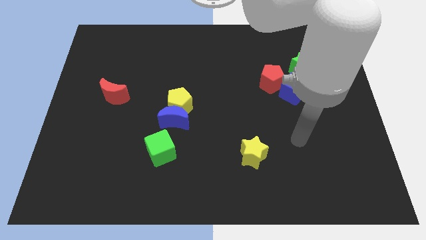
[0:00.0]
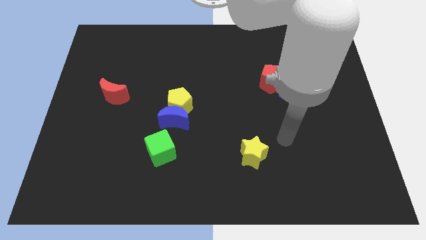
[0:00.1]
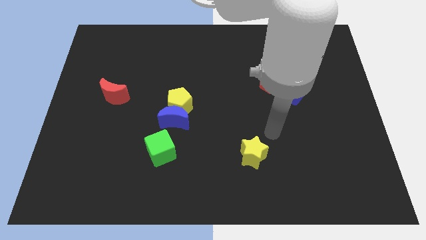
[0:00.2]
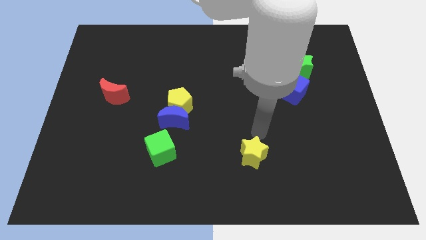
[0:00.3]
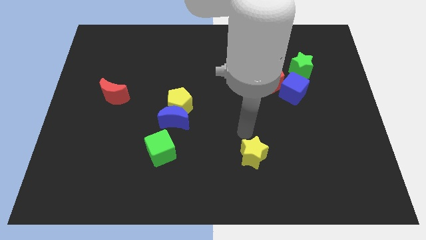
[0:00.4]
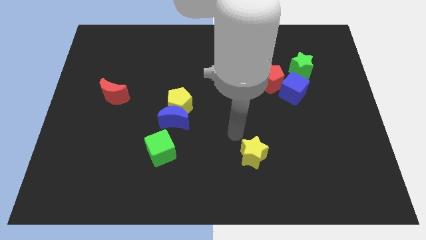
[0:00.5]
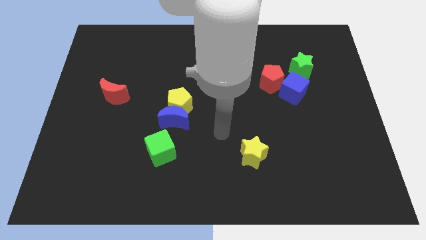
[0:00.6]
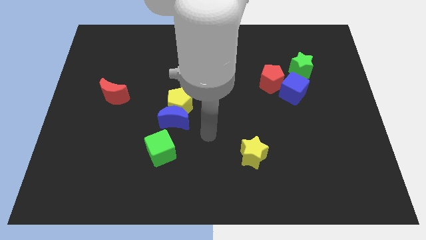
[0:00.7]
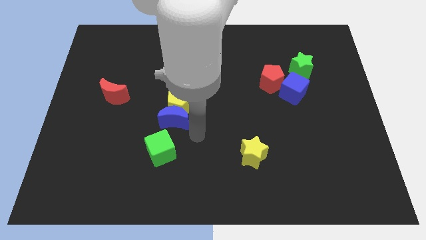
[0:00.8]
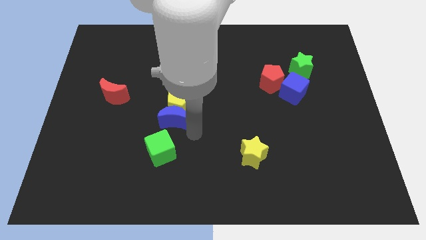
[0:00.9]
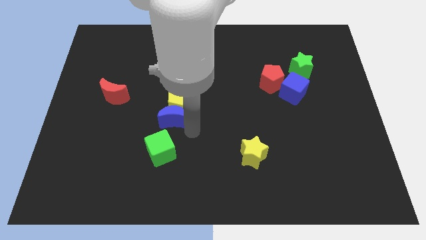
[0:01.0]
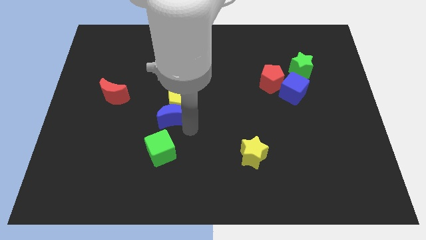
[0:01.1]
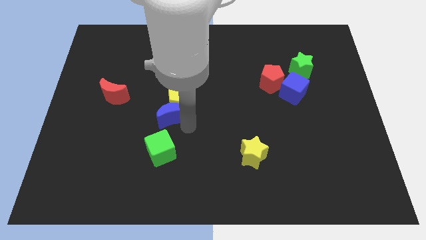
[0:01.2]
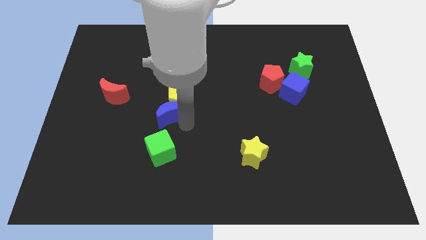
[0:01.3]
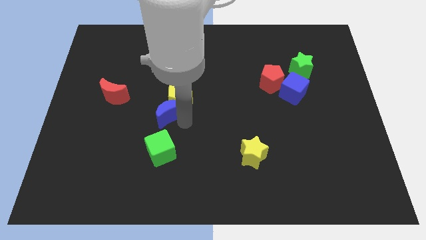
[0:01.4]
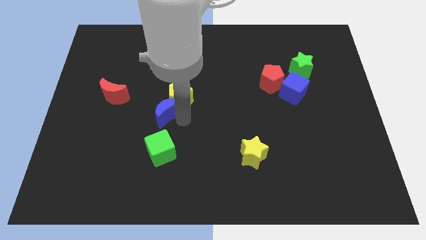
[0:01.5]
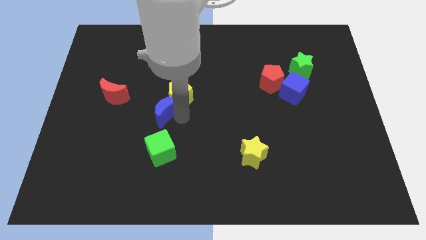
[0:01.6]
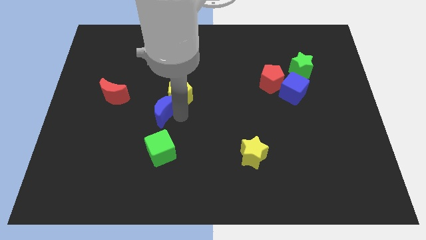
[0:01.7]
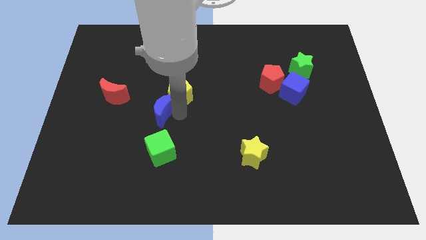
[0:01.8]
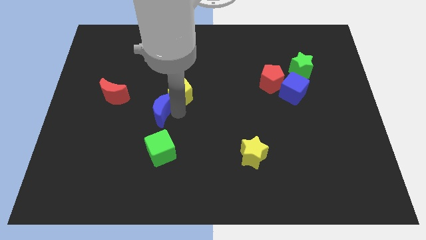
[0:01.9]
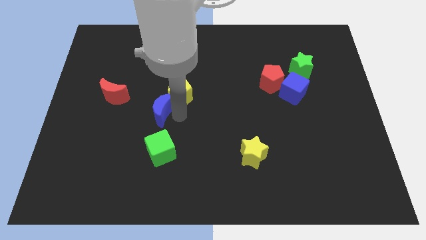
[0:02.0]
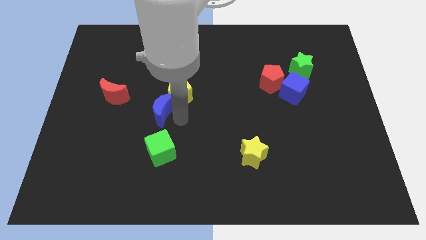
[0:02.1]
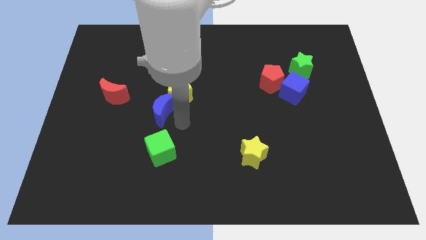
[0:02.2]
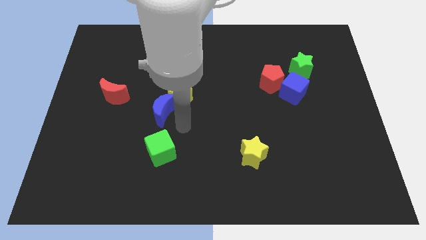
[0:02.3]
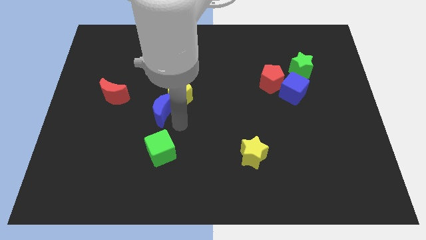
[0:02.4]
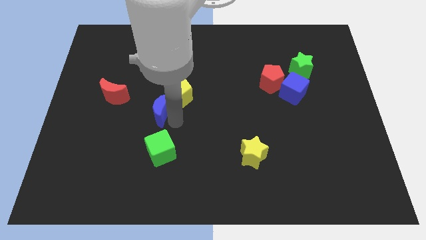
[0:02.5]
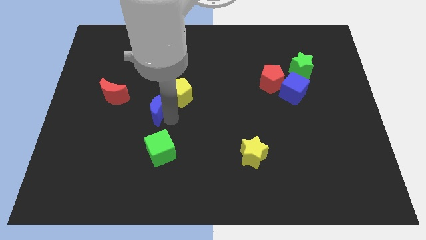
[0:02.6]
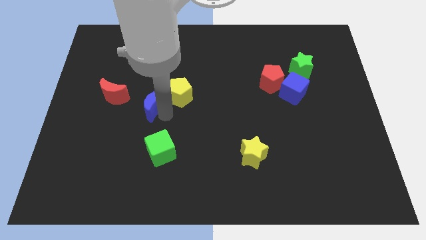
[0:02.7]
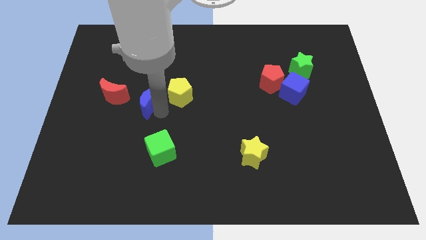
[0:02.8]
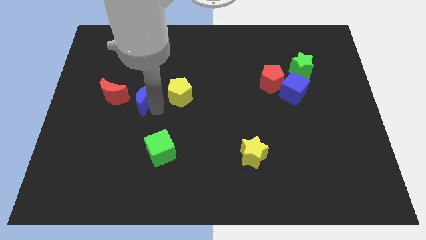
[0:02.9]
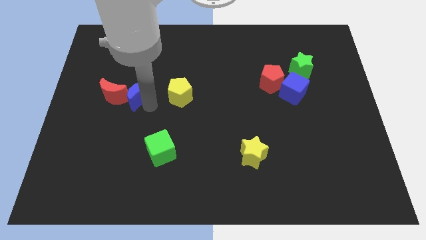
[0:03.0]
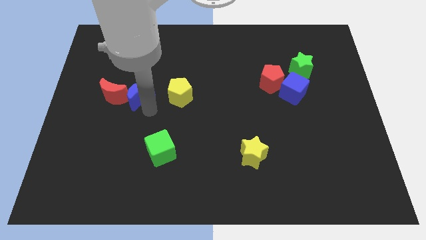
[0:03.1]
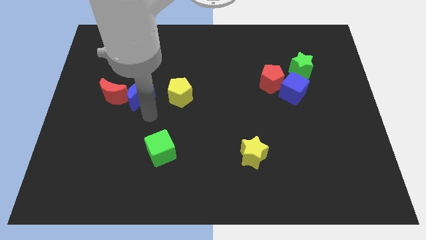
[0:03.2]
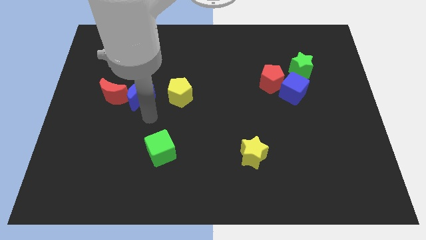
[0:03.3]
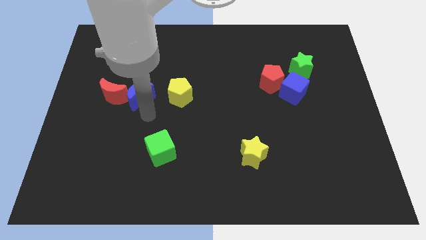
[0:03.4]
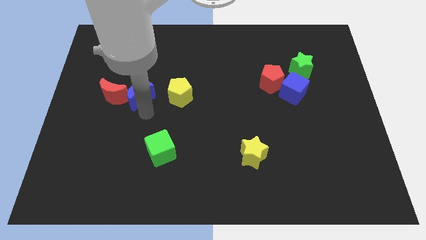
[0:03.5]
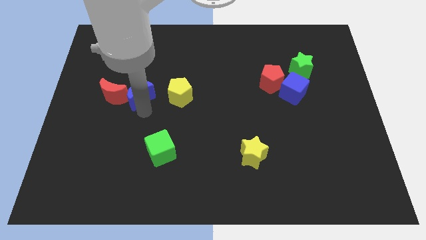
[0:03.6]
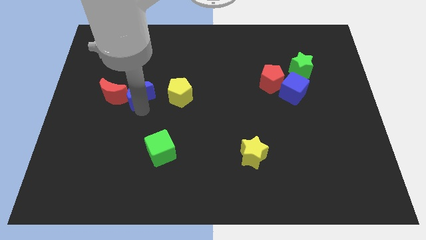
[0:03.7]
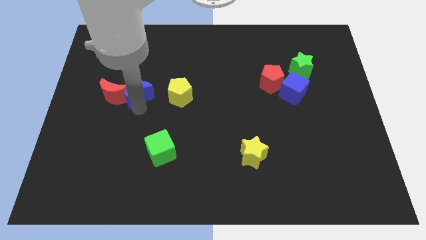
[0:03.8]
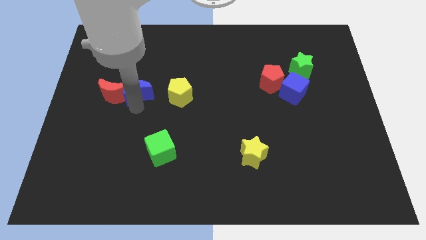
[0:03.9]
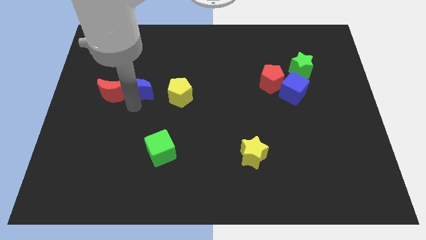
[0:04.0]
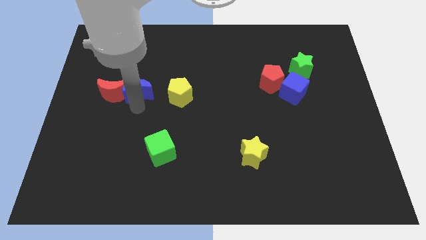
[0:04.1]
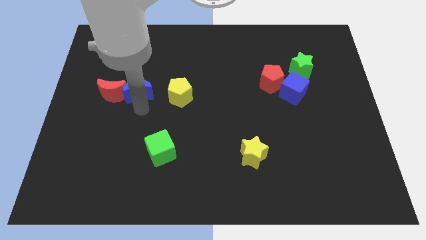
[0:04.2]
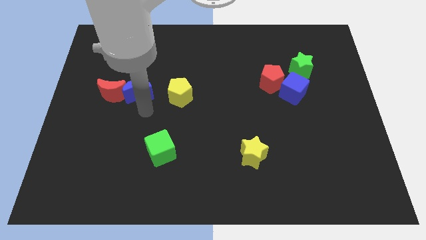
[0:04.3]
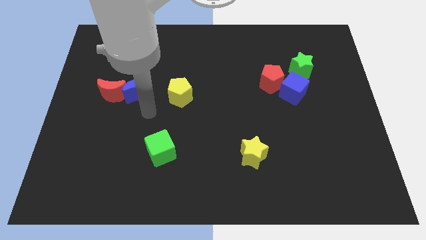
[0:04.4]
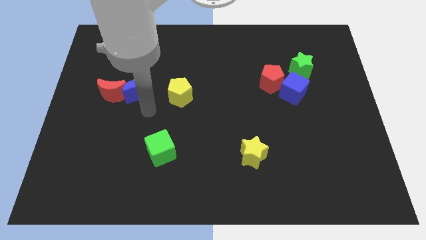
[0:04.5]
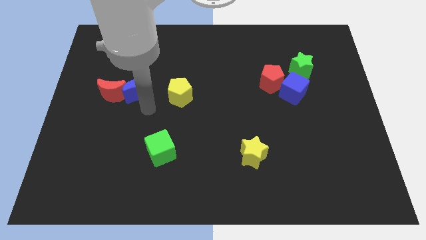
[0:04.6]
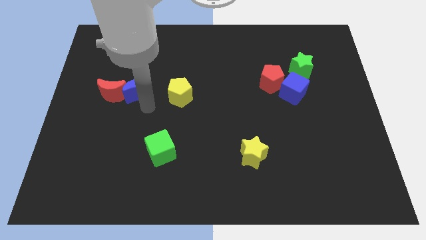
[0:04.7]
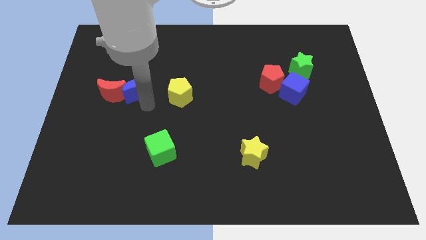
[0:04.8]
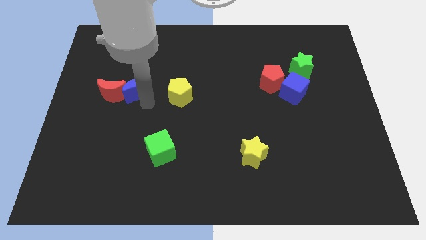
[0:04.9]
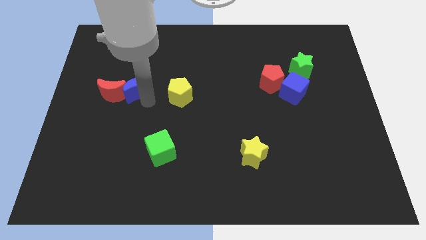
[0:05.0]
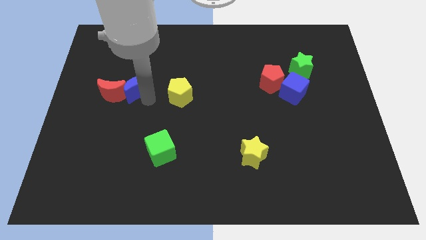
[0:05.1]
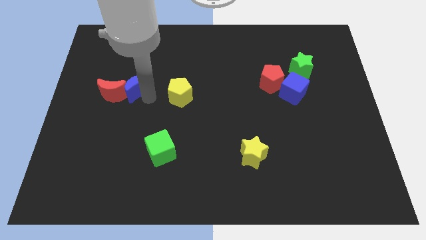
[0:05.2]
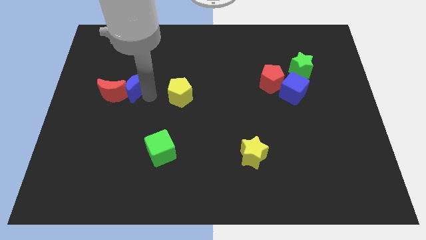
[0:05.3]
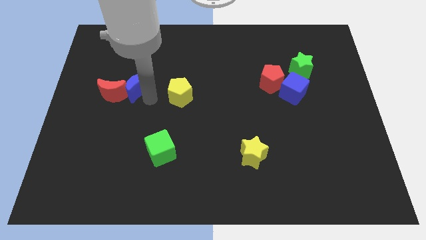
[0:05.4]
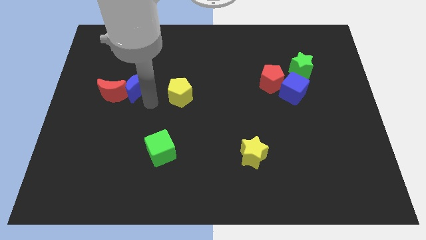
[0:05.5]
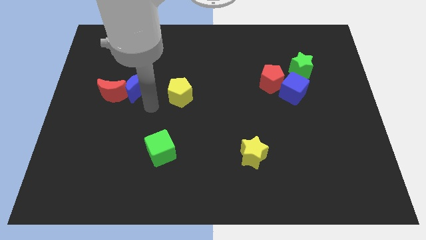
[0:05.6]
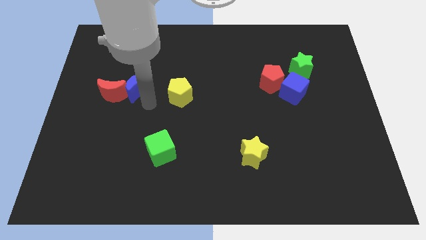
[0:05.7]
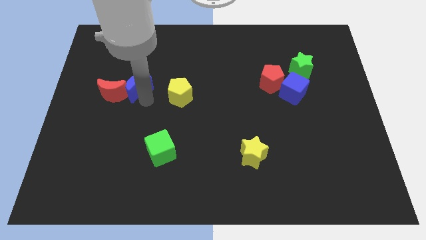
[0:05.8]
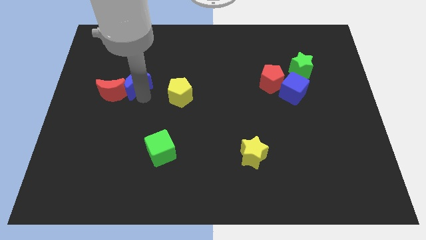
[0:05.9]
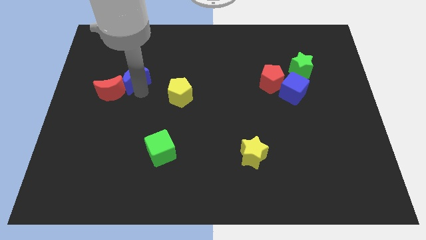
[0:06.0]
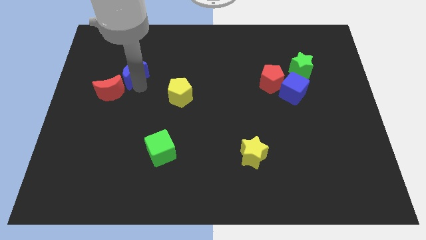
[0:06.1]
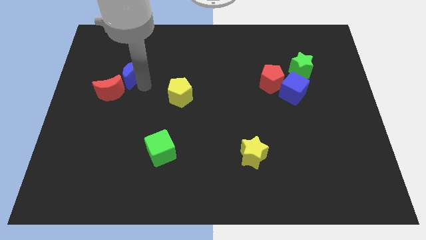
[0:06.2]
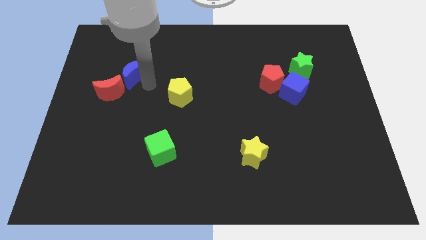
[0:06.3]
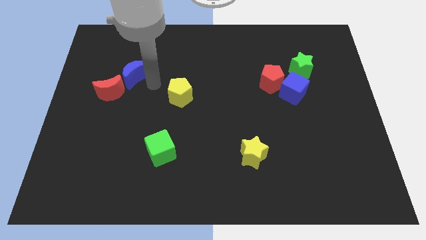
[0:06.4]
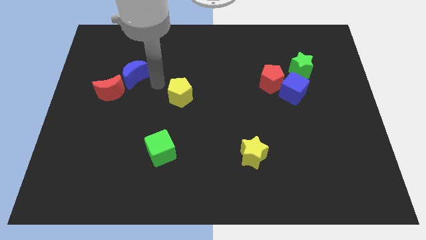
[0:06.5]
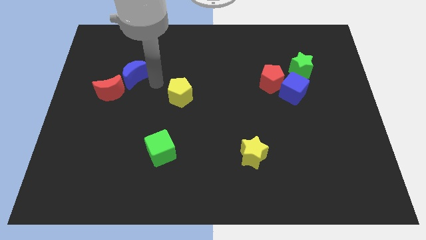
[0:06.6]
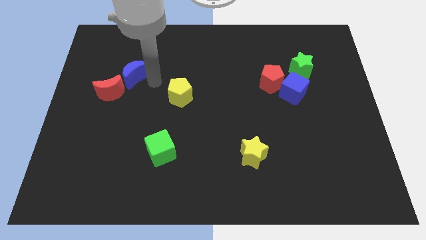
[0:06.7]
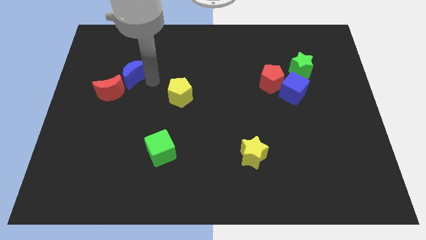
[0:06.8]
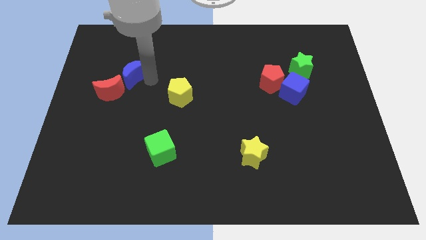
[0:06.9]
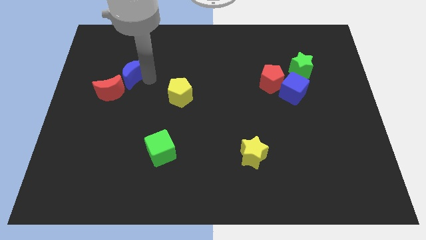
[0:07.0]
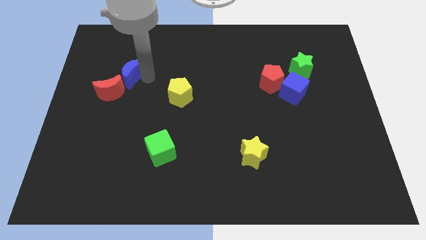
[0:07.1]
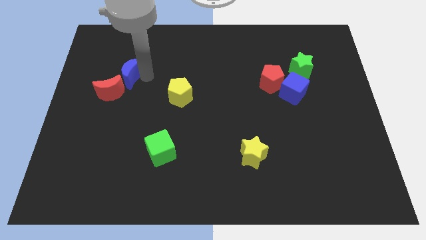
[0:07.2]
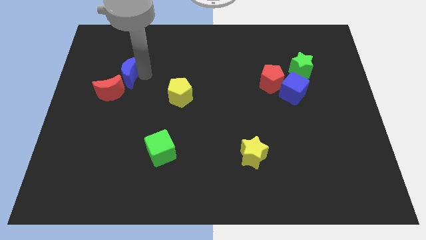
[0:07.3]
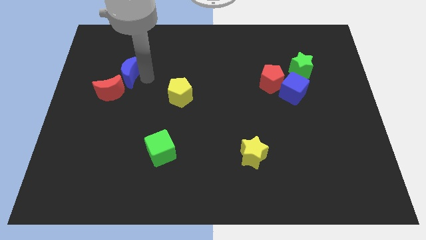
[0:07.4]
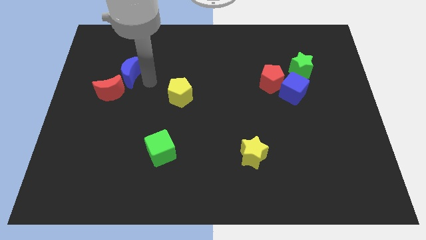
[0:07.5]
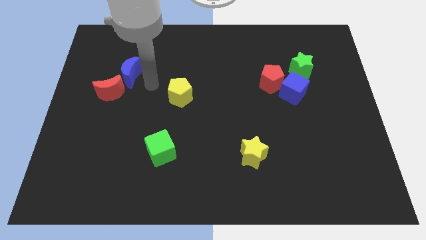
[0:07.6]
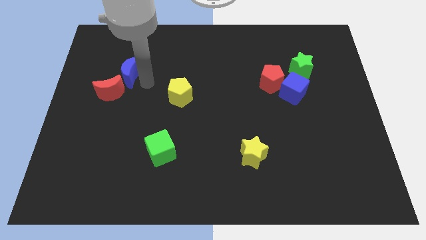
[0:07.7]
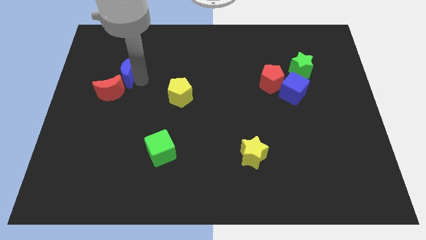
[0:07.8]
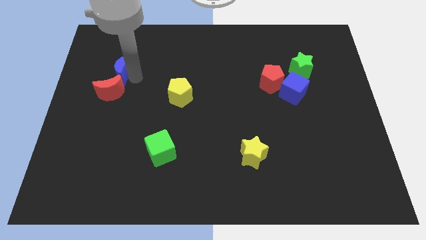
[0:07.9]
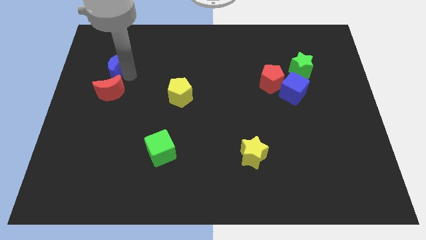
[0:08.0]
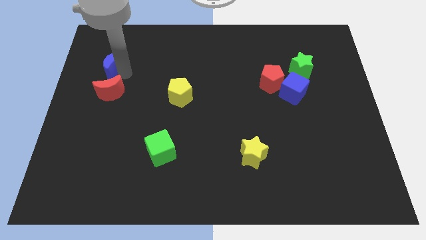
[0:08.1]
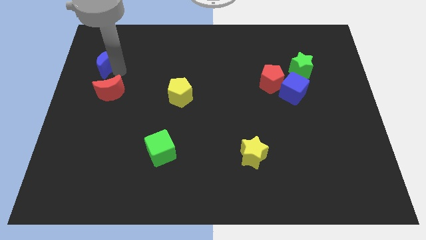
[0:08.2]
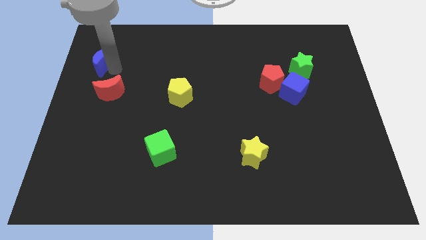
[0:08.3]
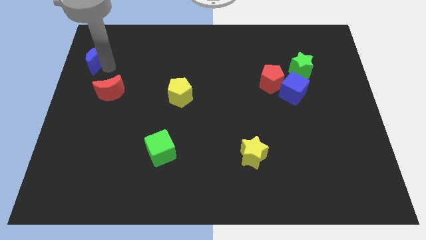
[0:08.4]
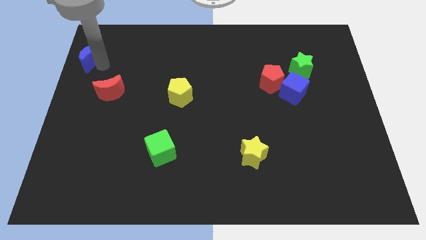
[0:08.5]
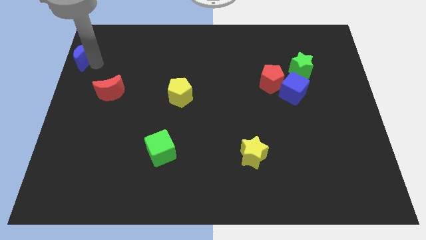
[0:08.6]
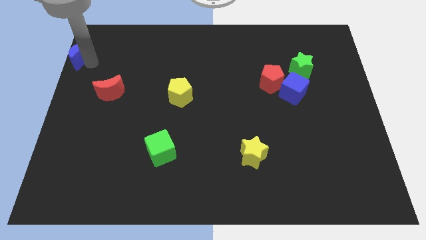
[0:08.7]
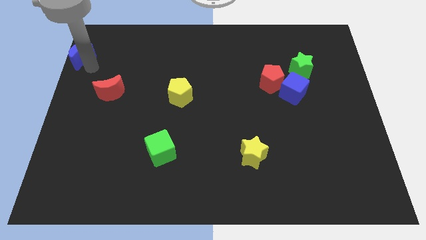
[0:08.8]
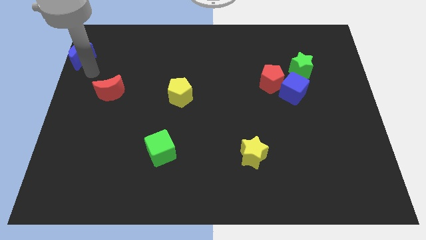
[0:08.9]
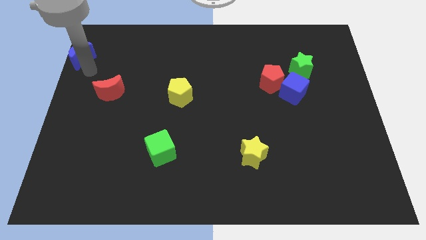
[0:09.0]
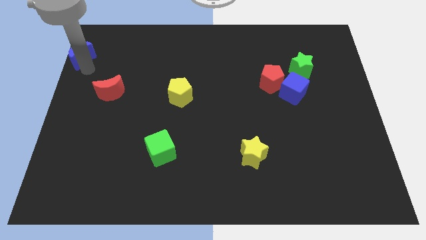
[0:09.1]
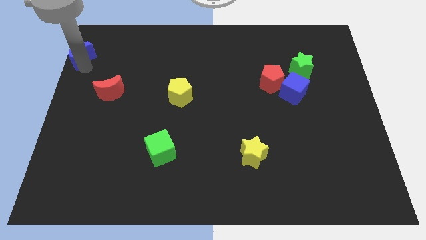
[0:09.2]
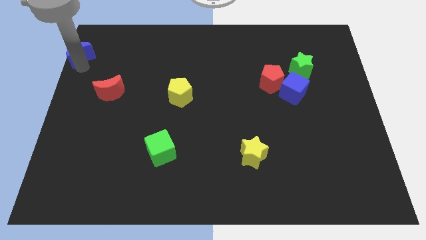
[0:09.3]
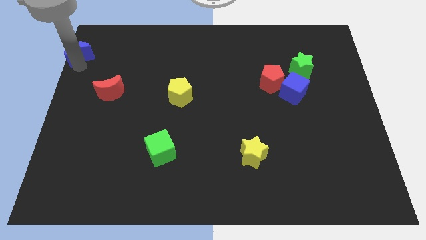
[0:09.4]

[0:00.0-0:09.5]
slide the blue moon to the top left
